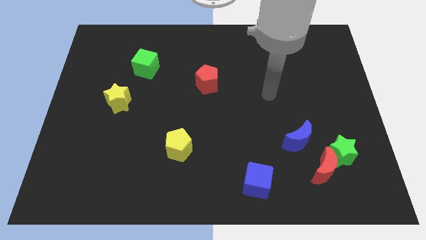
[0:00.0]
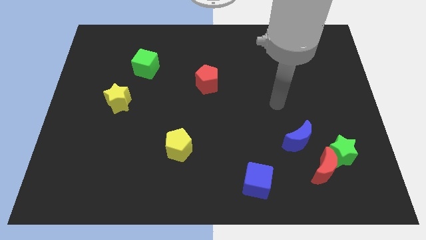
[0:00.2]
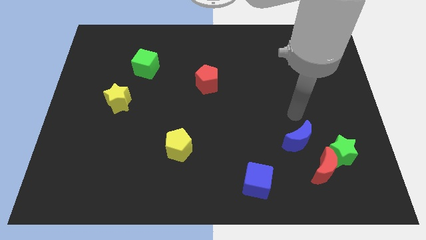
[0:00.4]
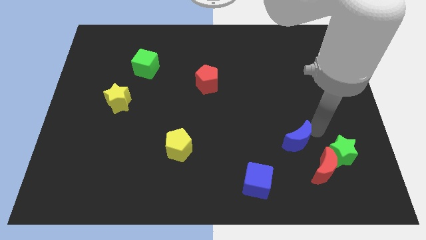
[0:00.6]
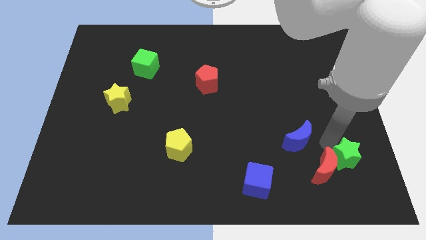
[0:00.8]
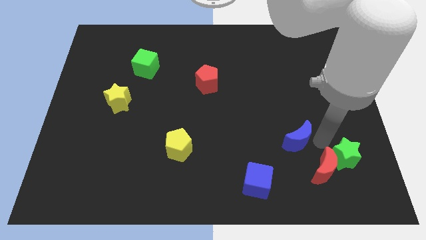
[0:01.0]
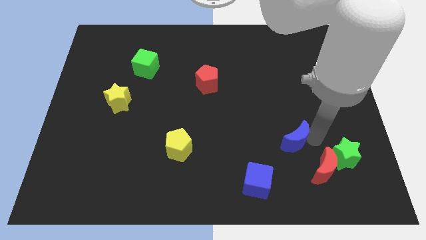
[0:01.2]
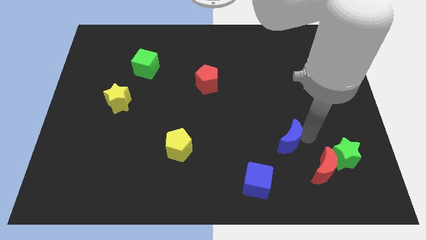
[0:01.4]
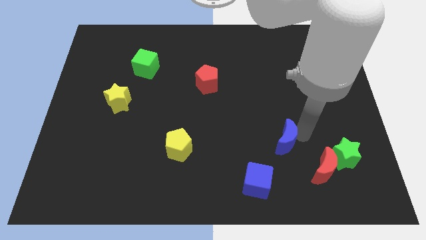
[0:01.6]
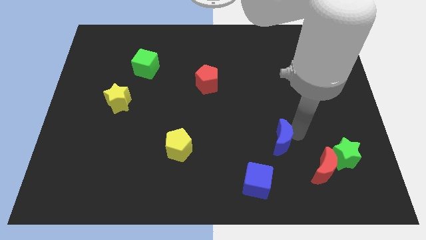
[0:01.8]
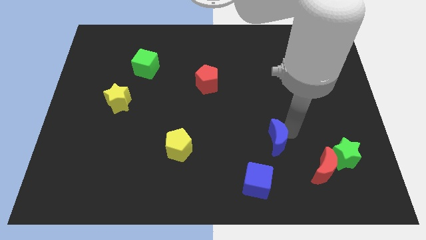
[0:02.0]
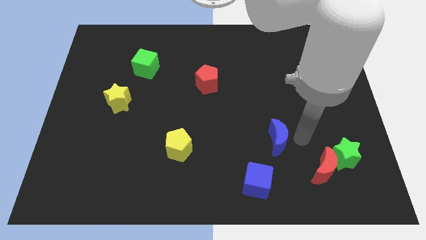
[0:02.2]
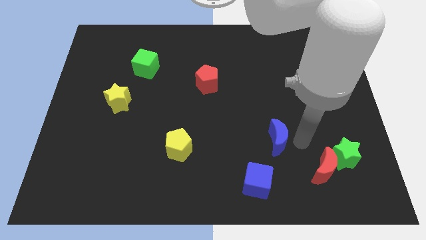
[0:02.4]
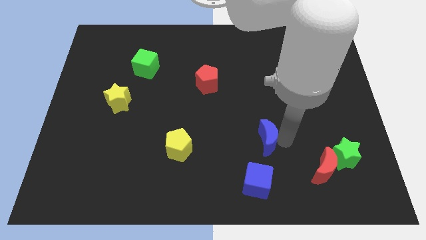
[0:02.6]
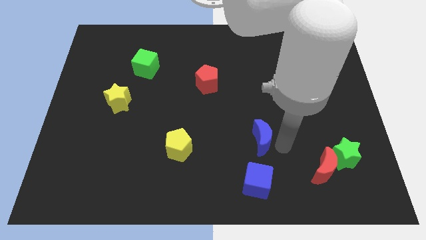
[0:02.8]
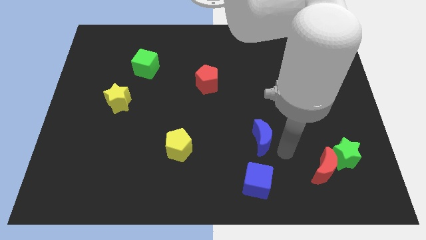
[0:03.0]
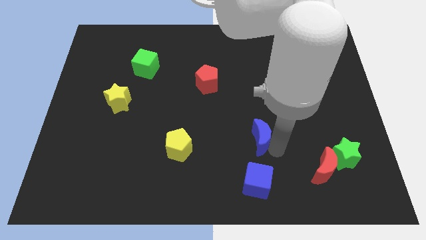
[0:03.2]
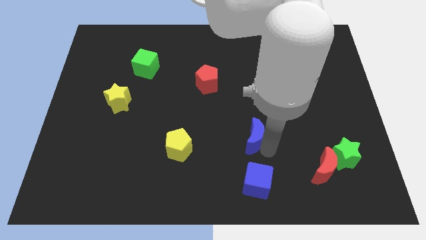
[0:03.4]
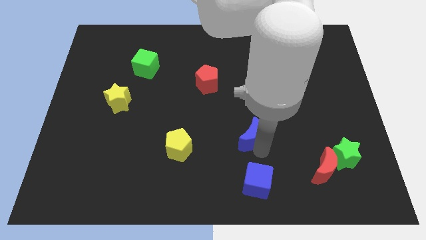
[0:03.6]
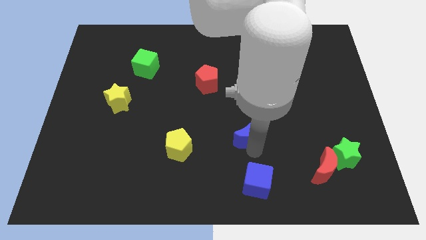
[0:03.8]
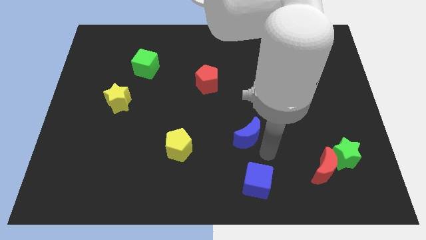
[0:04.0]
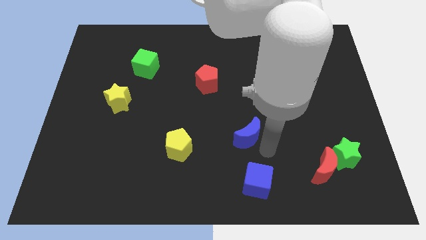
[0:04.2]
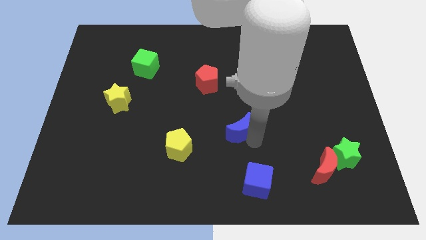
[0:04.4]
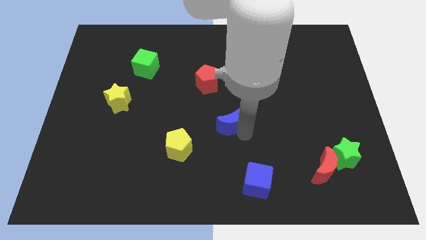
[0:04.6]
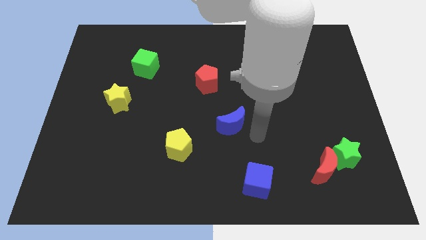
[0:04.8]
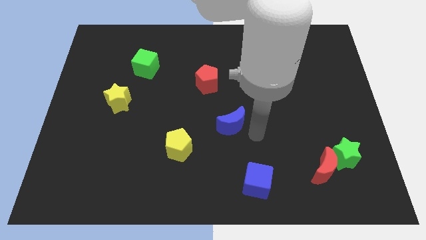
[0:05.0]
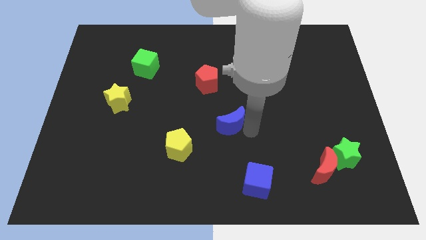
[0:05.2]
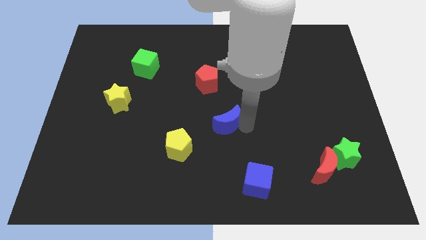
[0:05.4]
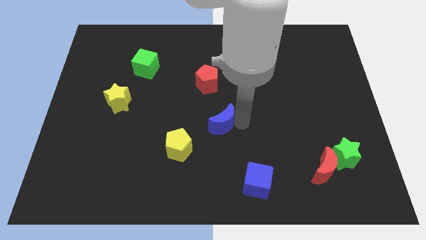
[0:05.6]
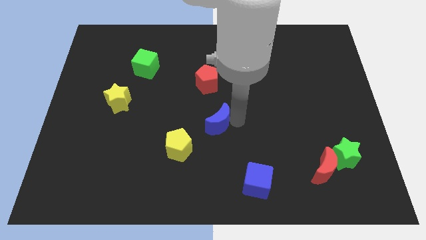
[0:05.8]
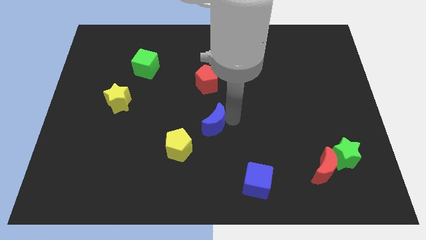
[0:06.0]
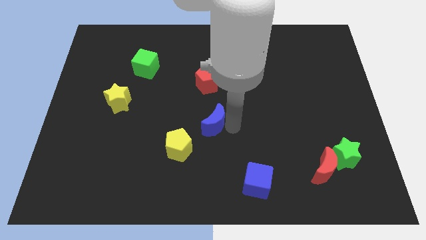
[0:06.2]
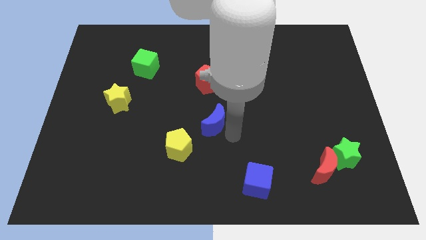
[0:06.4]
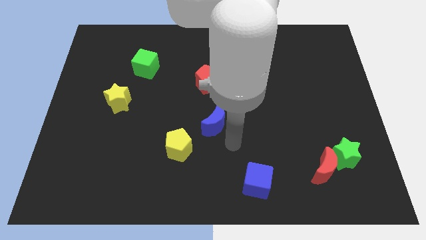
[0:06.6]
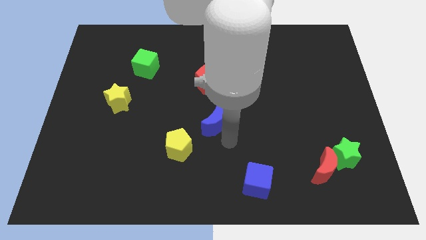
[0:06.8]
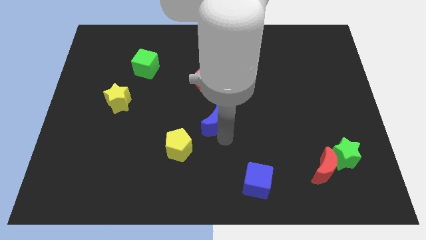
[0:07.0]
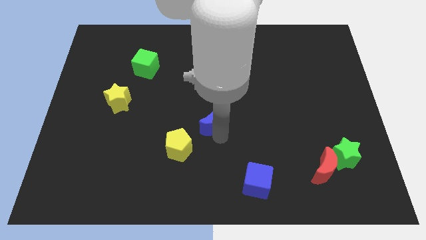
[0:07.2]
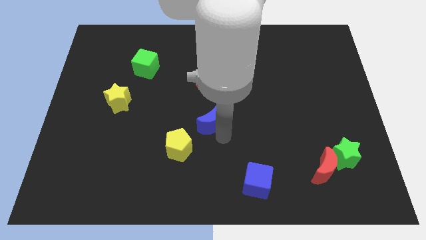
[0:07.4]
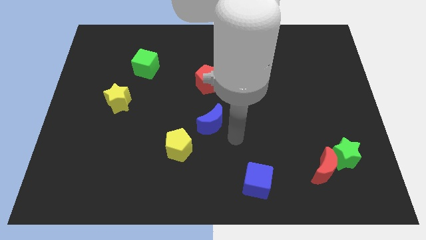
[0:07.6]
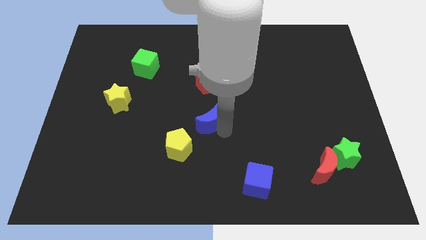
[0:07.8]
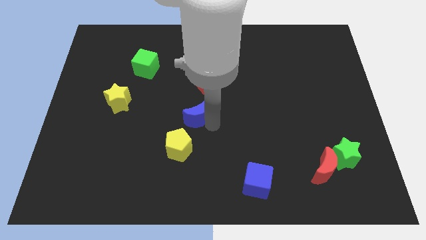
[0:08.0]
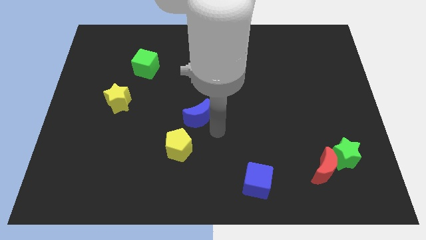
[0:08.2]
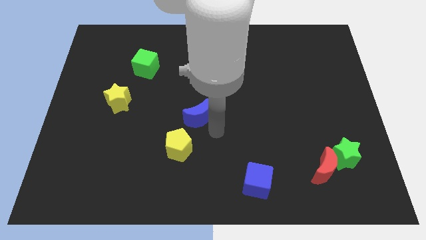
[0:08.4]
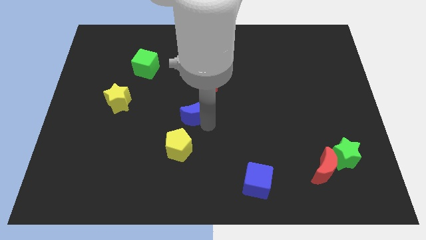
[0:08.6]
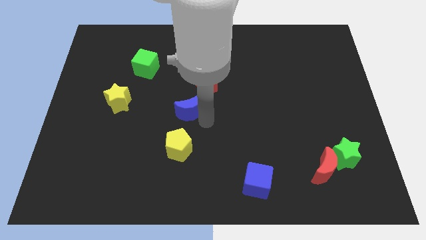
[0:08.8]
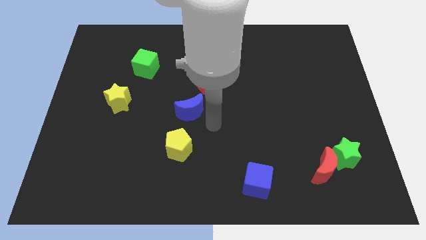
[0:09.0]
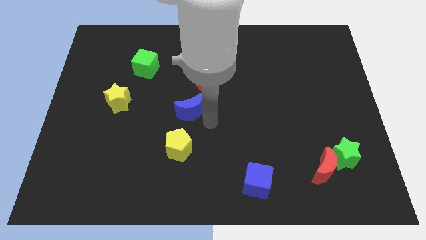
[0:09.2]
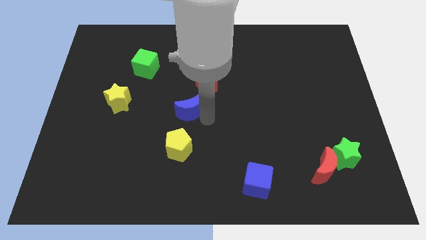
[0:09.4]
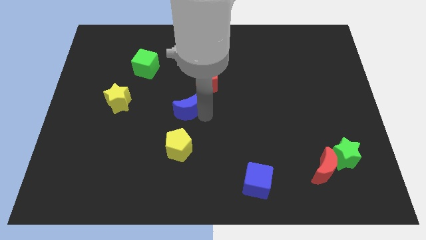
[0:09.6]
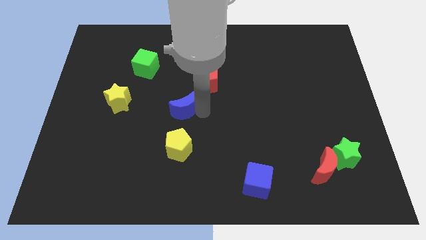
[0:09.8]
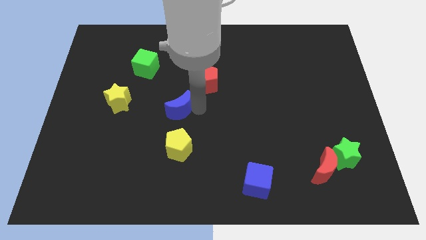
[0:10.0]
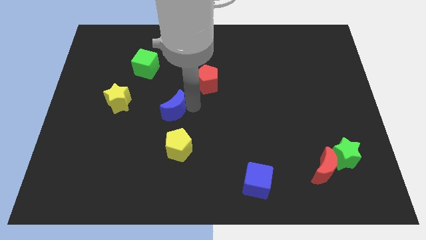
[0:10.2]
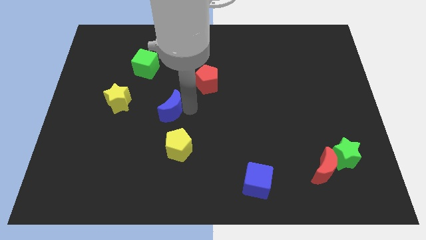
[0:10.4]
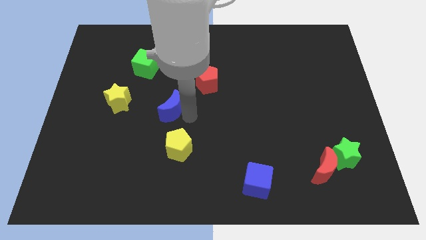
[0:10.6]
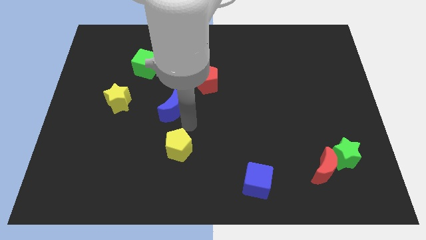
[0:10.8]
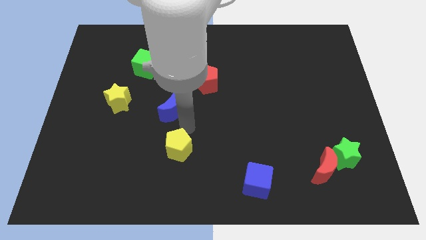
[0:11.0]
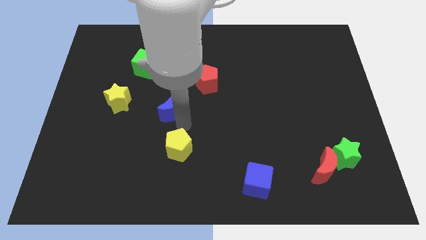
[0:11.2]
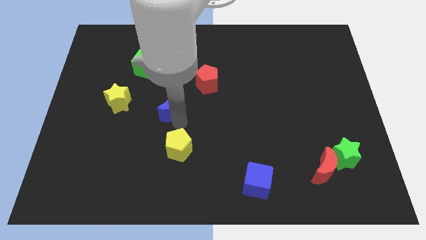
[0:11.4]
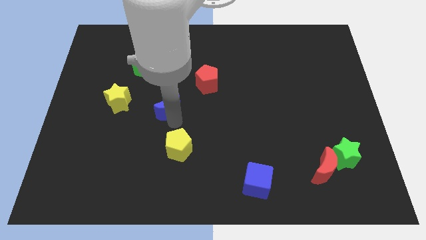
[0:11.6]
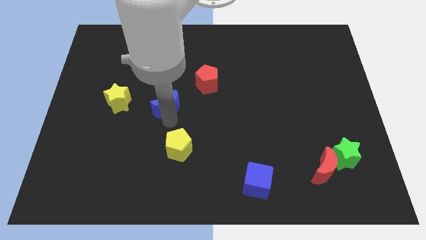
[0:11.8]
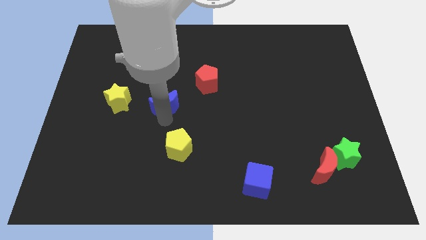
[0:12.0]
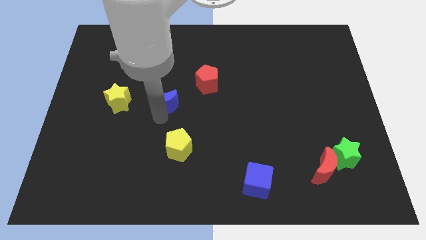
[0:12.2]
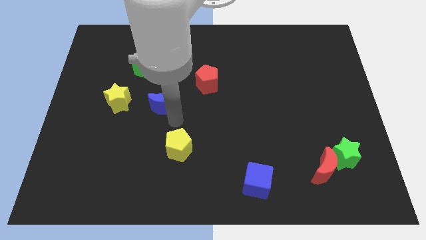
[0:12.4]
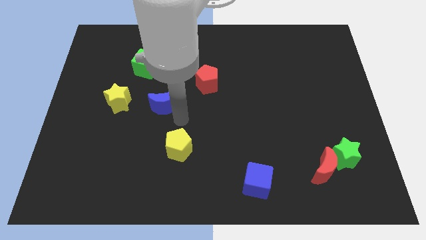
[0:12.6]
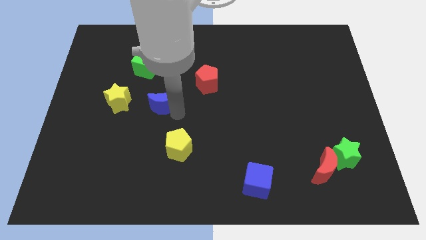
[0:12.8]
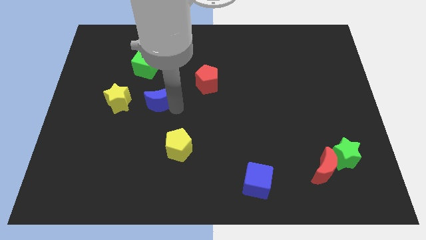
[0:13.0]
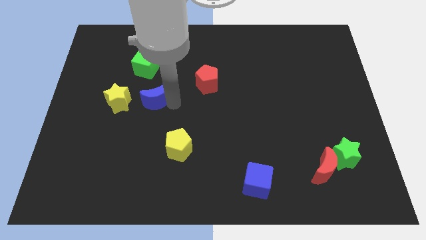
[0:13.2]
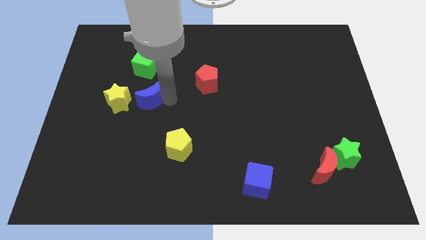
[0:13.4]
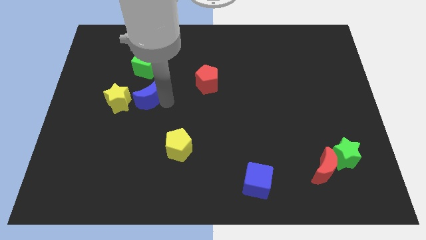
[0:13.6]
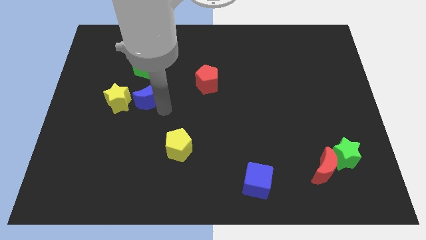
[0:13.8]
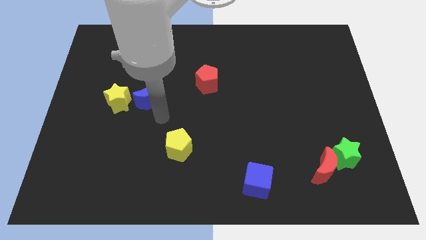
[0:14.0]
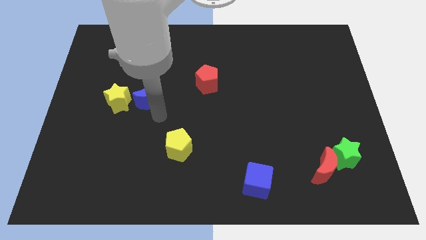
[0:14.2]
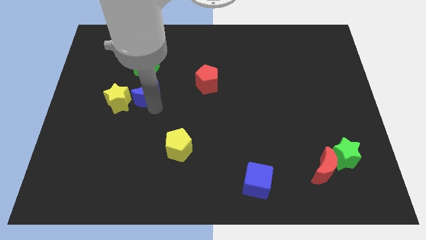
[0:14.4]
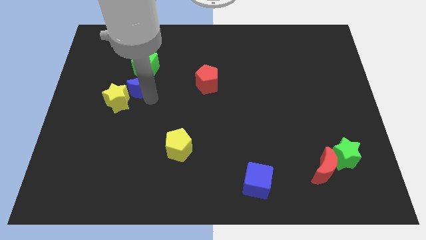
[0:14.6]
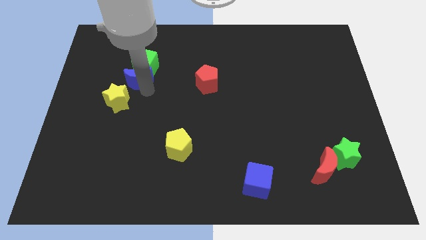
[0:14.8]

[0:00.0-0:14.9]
move the blue moon to the top side of the yellow star

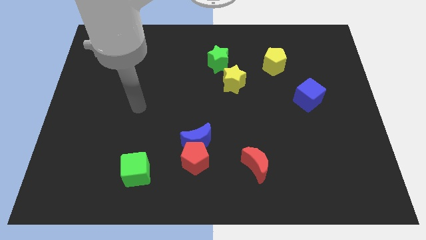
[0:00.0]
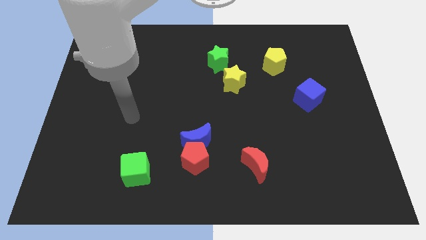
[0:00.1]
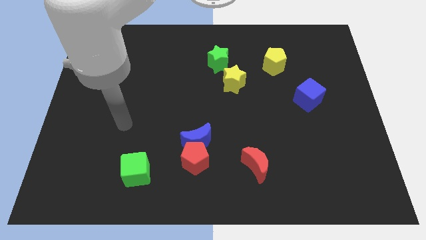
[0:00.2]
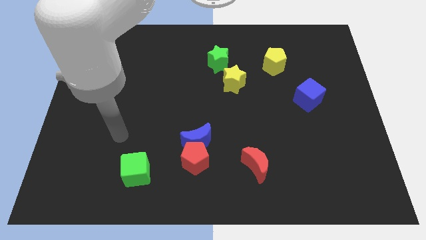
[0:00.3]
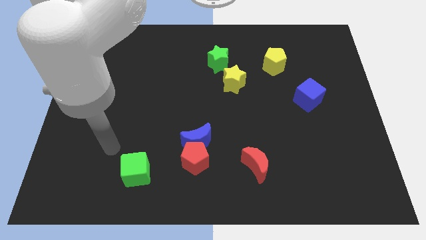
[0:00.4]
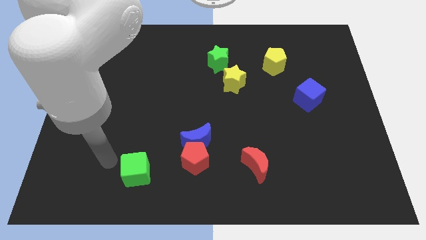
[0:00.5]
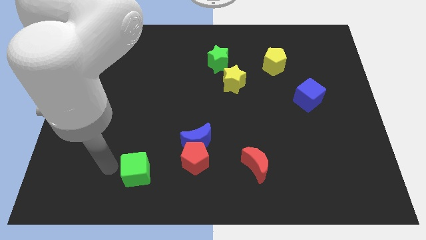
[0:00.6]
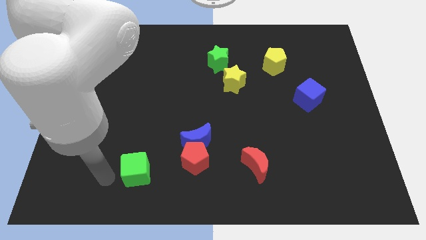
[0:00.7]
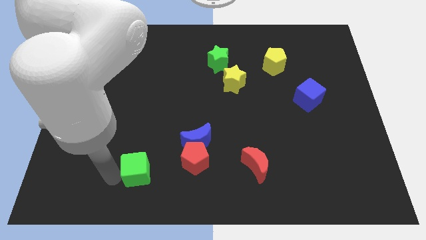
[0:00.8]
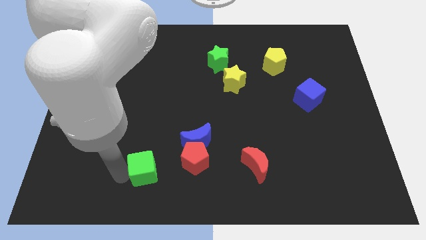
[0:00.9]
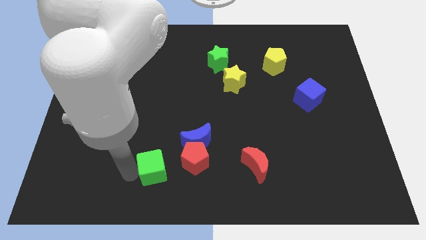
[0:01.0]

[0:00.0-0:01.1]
push the green cube diagonally down and to the left of the blue moon
